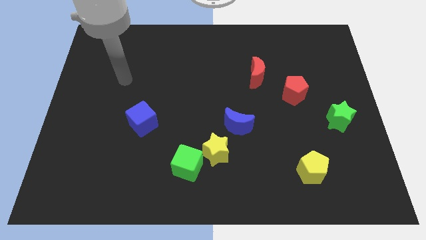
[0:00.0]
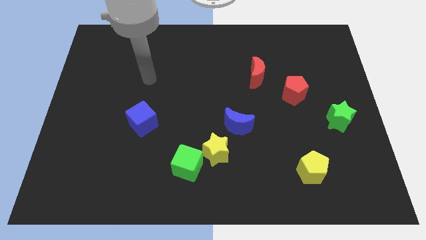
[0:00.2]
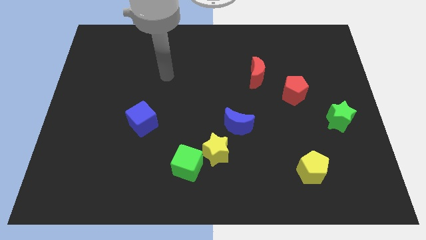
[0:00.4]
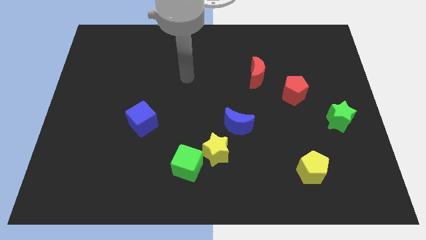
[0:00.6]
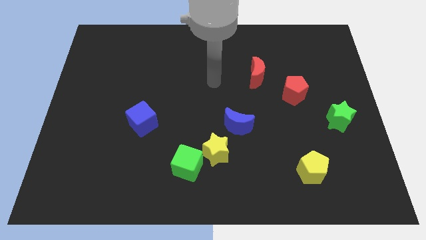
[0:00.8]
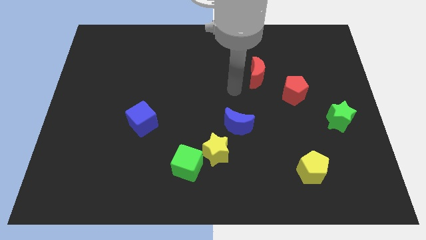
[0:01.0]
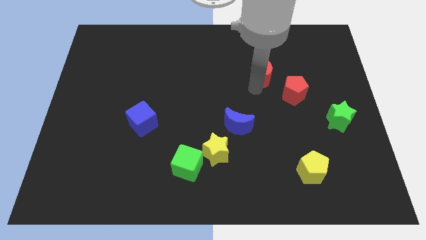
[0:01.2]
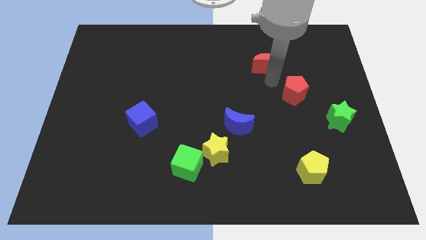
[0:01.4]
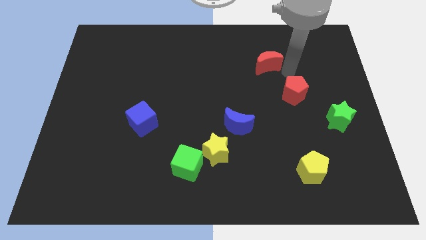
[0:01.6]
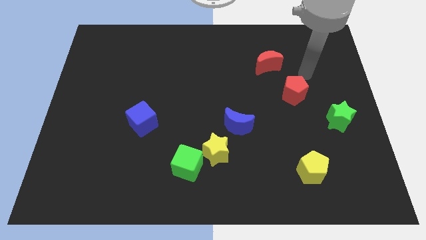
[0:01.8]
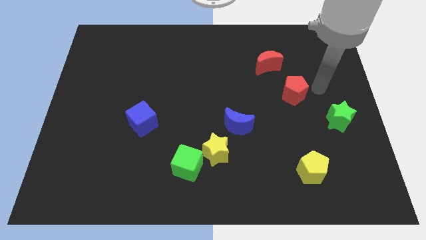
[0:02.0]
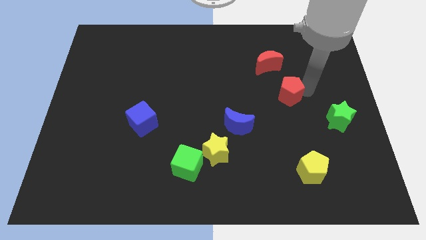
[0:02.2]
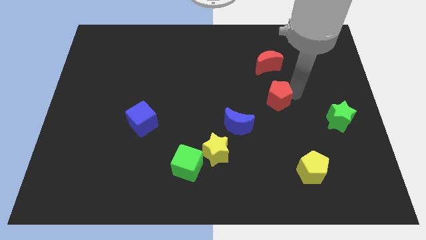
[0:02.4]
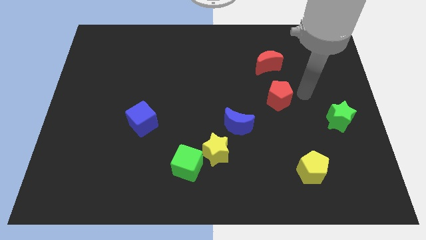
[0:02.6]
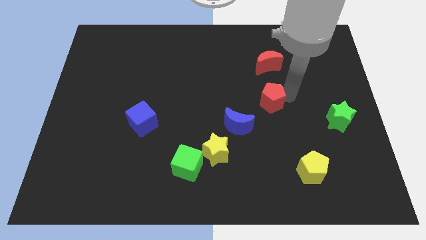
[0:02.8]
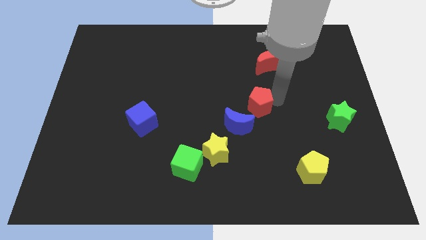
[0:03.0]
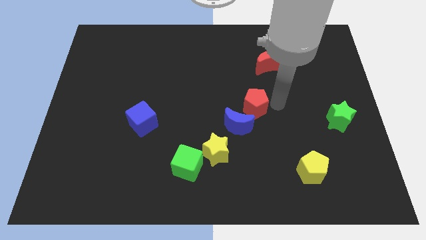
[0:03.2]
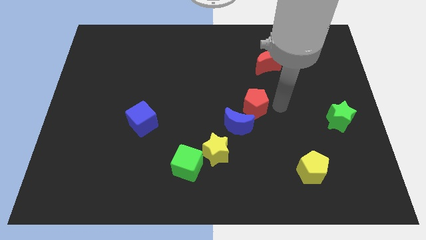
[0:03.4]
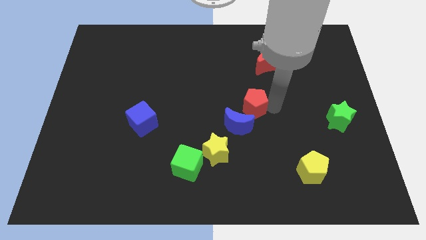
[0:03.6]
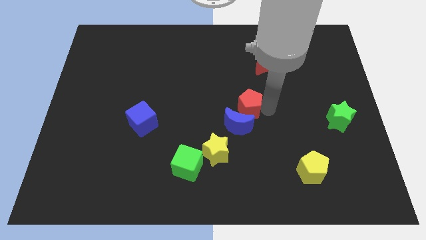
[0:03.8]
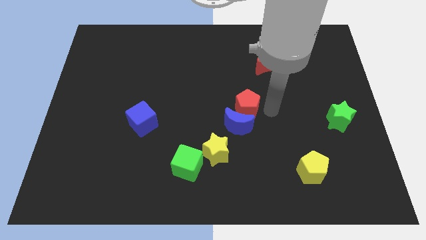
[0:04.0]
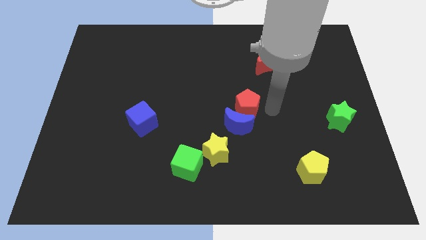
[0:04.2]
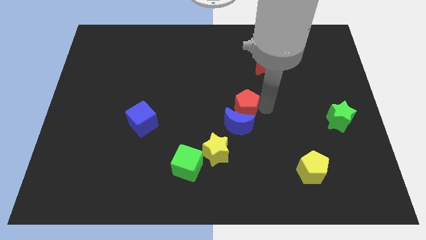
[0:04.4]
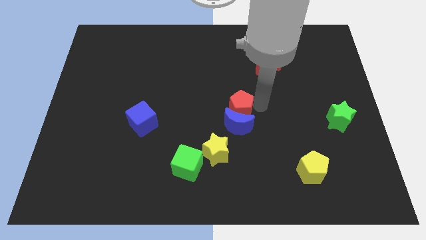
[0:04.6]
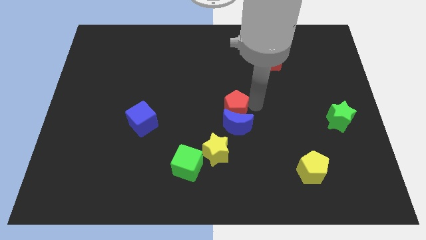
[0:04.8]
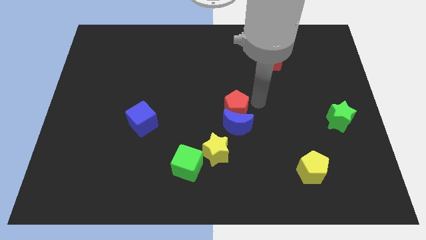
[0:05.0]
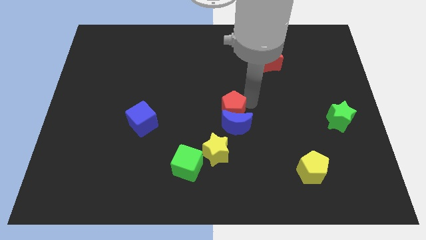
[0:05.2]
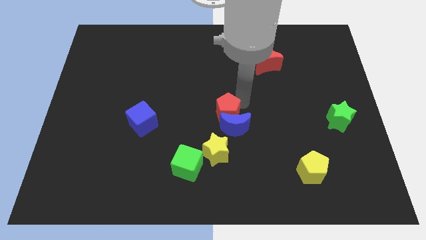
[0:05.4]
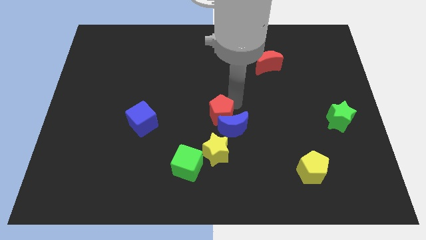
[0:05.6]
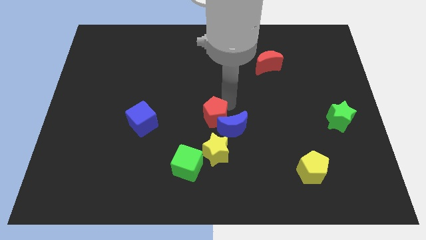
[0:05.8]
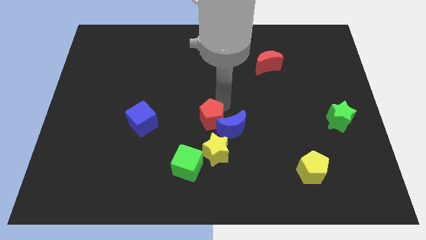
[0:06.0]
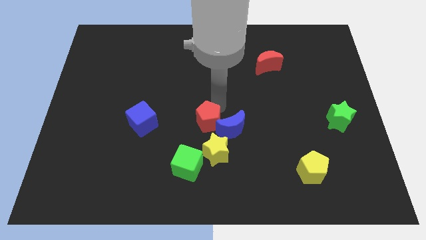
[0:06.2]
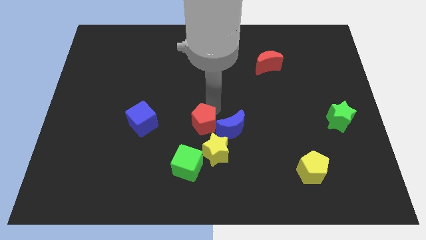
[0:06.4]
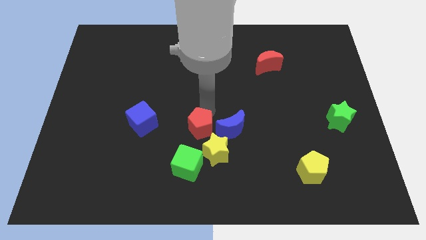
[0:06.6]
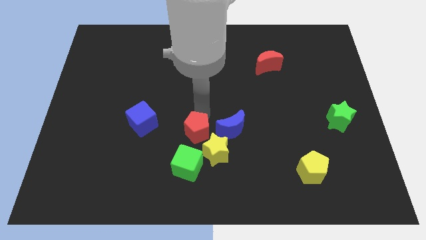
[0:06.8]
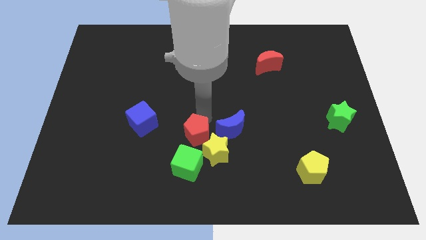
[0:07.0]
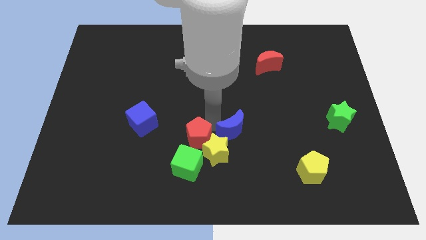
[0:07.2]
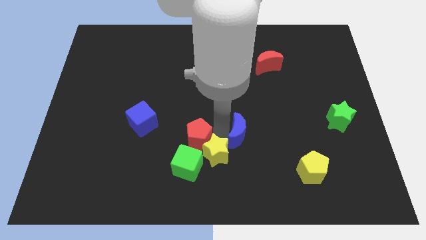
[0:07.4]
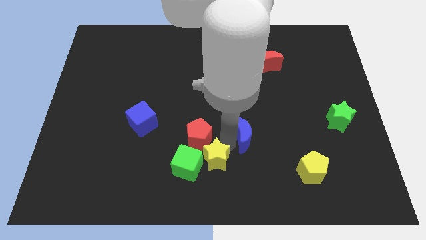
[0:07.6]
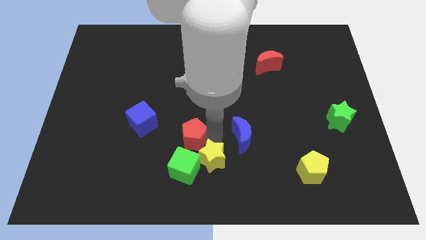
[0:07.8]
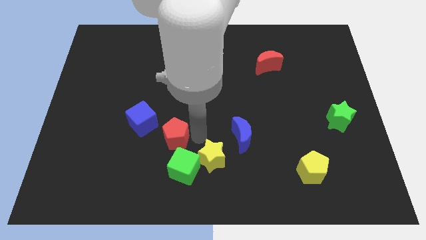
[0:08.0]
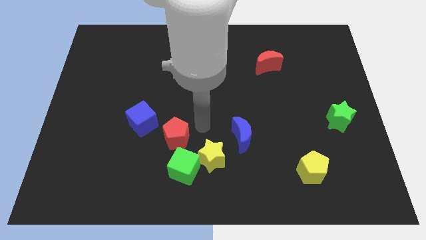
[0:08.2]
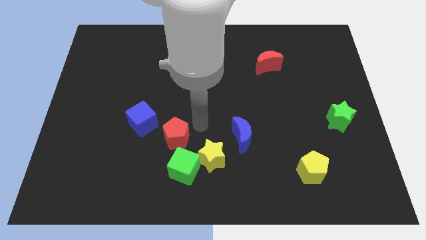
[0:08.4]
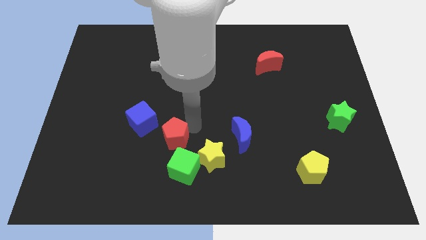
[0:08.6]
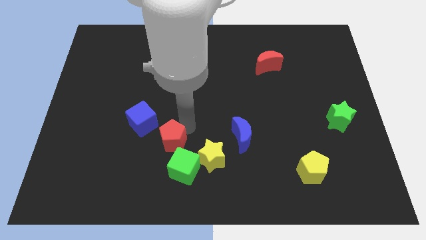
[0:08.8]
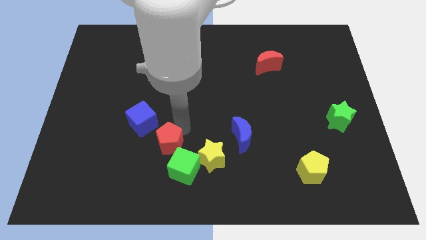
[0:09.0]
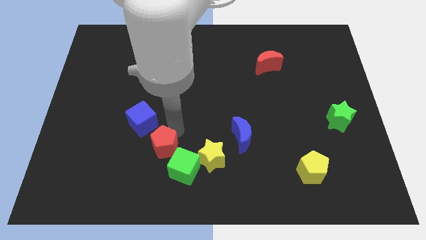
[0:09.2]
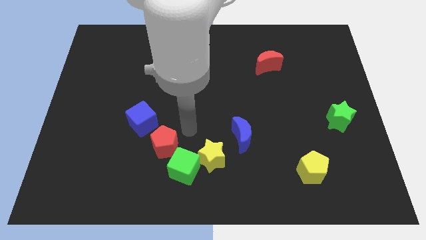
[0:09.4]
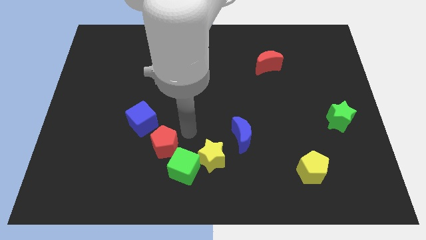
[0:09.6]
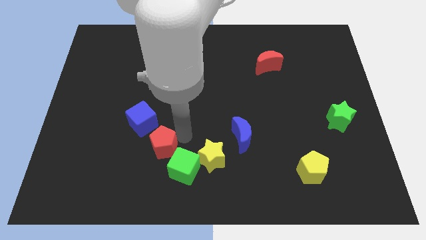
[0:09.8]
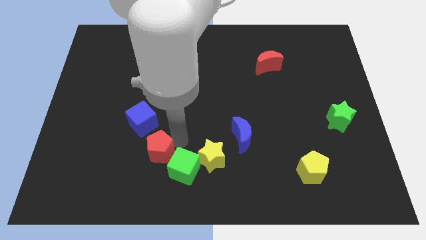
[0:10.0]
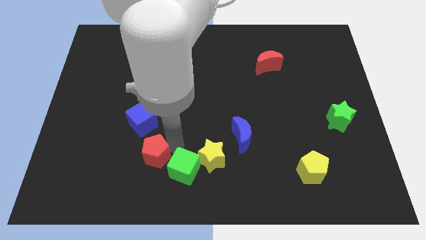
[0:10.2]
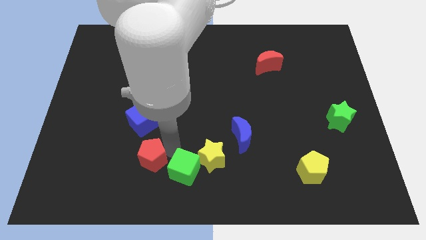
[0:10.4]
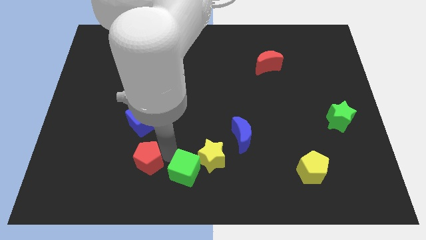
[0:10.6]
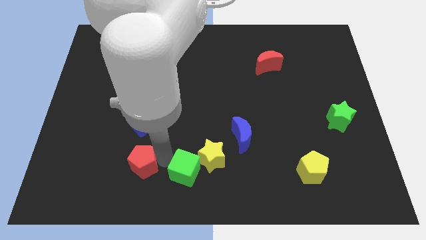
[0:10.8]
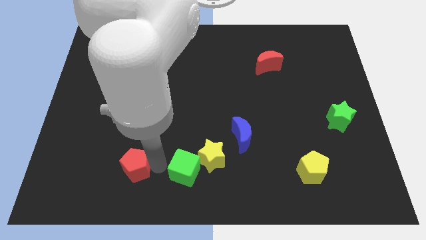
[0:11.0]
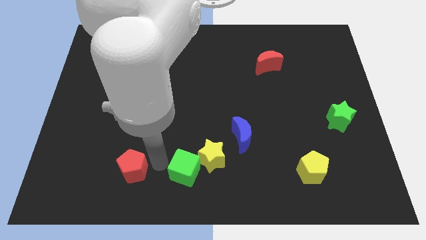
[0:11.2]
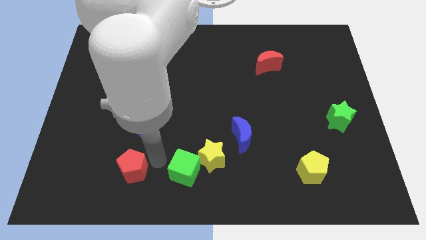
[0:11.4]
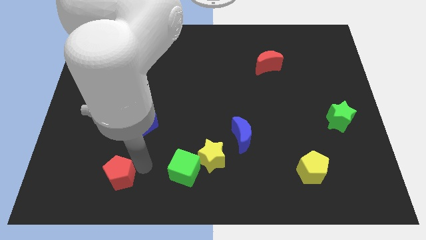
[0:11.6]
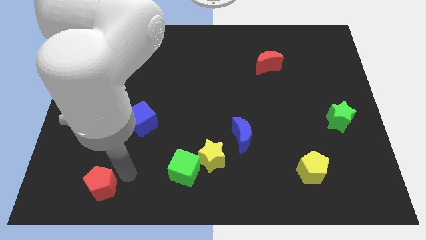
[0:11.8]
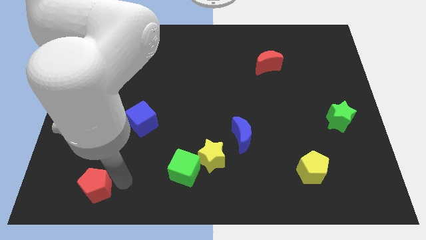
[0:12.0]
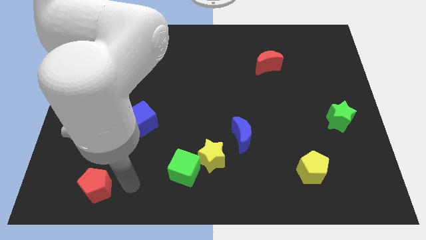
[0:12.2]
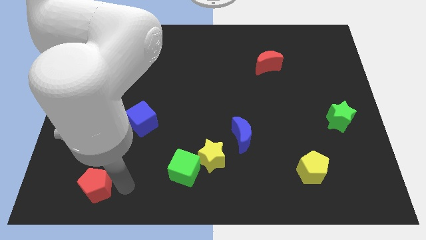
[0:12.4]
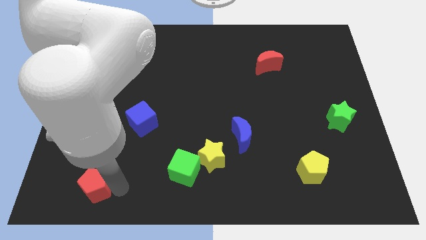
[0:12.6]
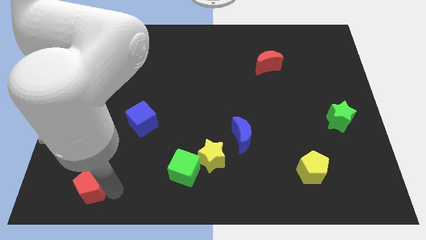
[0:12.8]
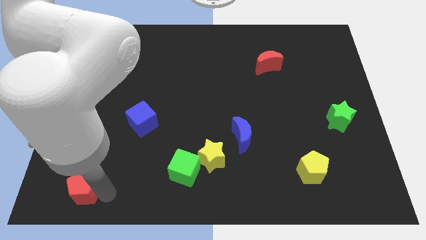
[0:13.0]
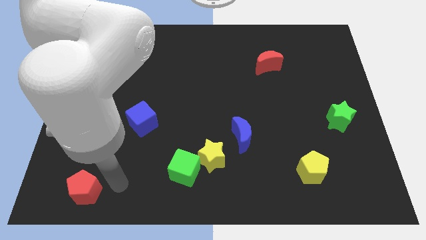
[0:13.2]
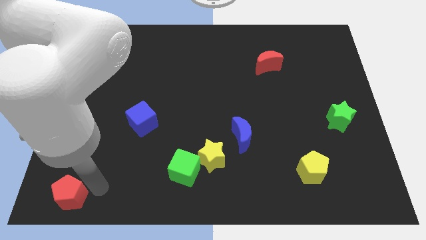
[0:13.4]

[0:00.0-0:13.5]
put the red pentagon to the bottom left

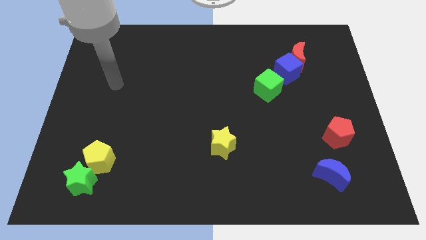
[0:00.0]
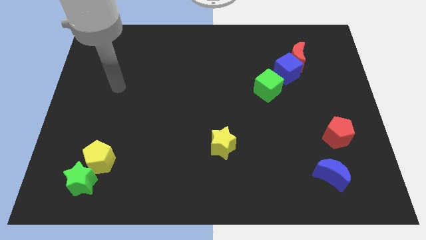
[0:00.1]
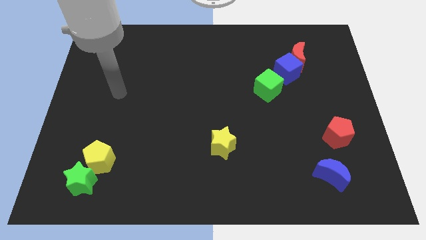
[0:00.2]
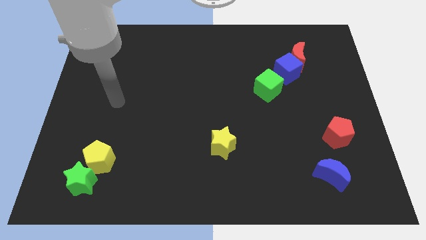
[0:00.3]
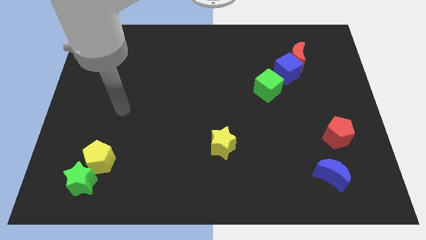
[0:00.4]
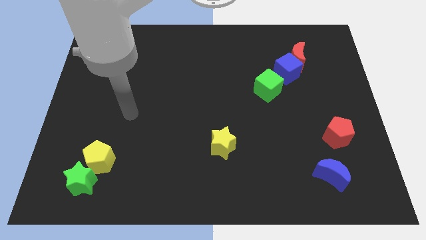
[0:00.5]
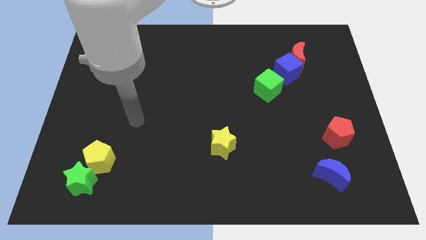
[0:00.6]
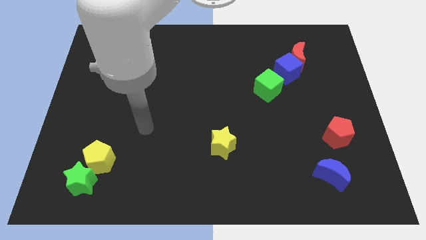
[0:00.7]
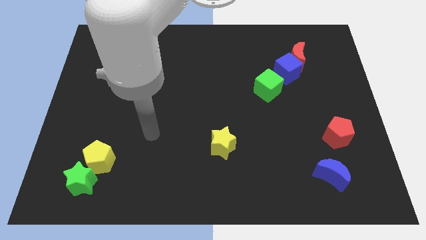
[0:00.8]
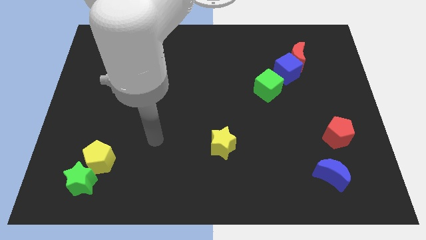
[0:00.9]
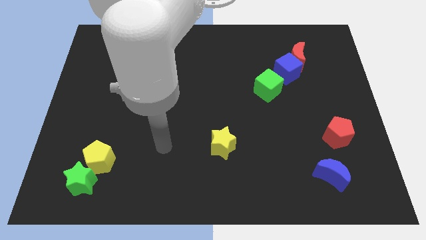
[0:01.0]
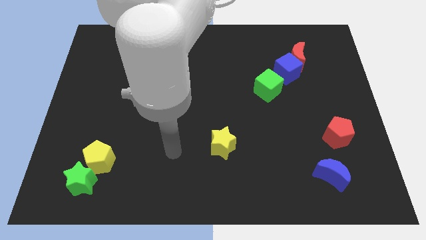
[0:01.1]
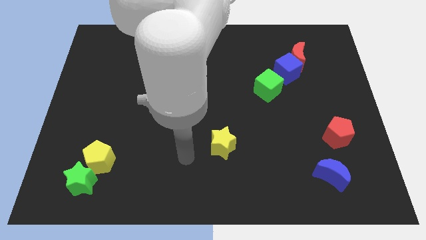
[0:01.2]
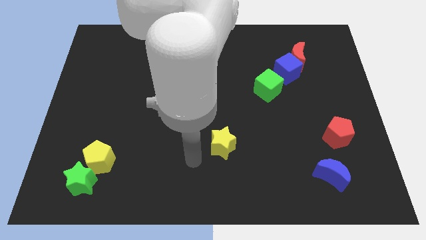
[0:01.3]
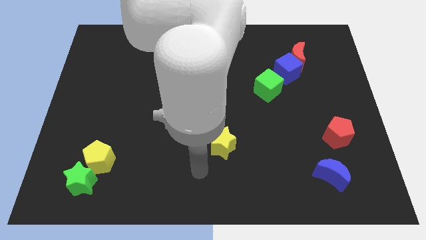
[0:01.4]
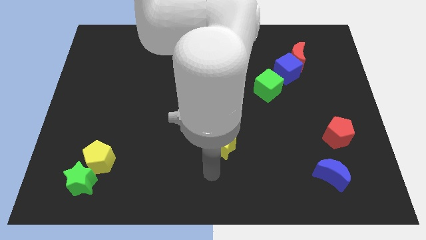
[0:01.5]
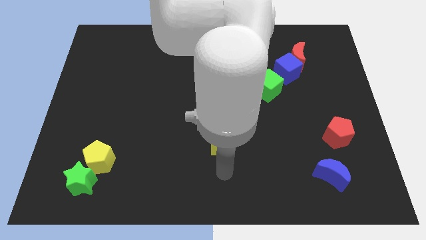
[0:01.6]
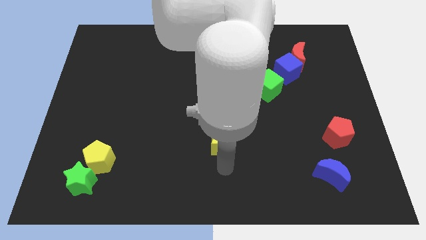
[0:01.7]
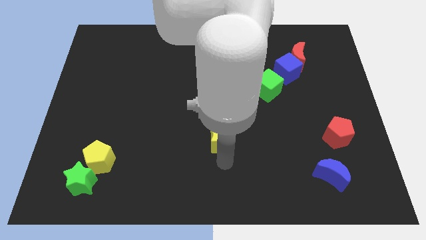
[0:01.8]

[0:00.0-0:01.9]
push the yellow star to the middle of the board
